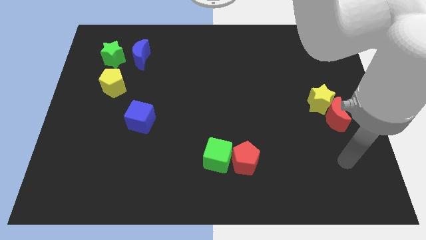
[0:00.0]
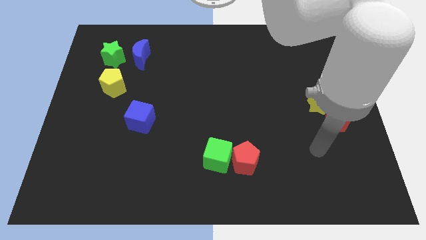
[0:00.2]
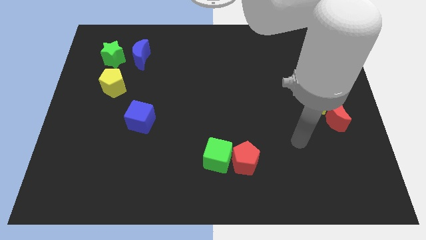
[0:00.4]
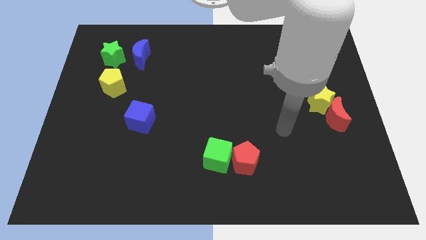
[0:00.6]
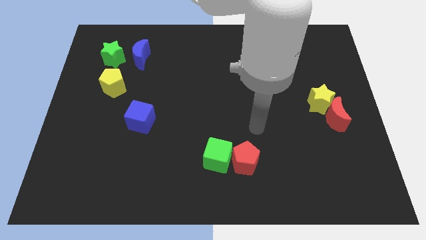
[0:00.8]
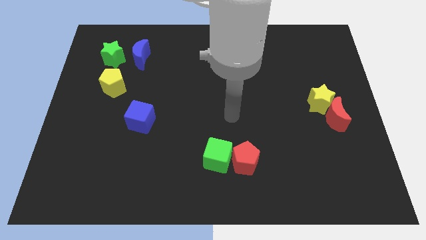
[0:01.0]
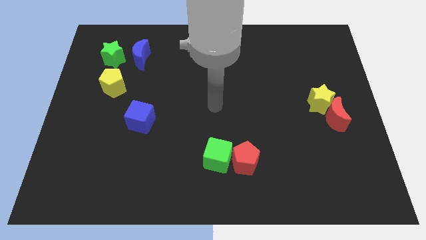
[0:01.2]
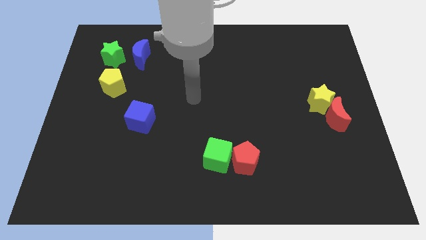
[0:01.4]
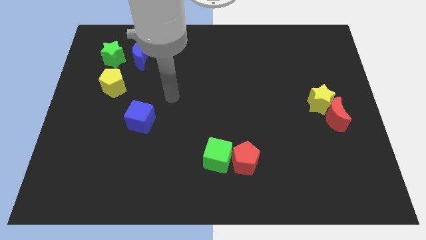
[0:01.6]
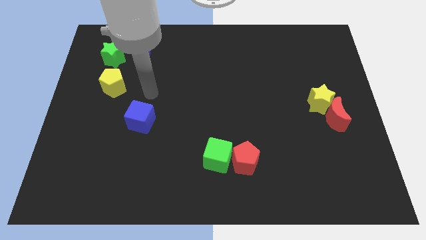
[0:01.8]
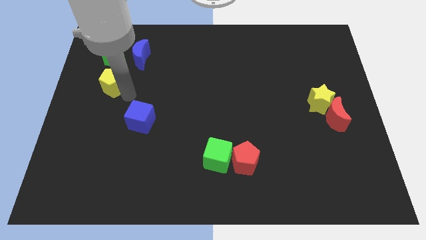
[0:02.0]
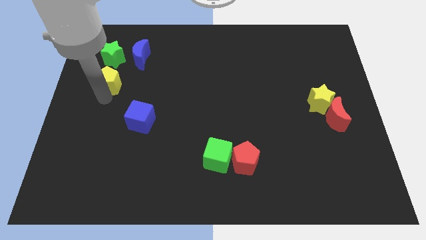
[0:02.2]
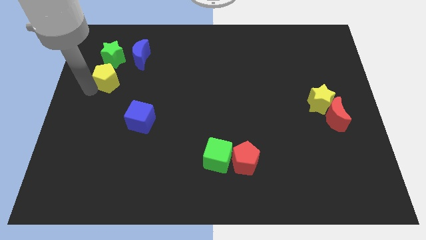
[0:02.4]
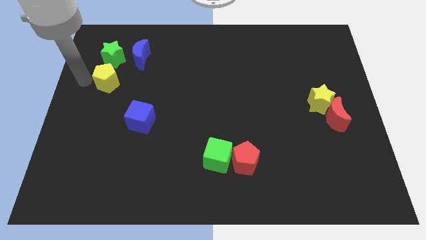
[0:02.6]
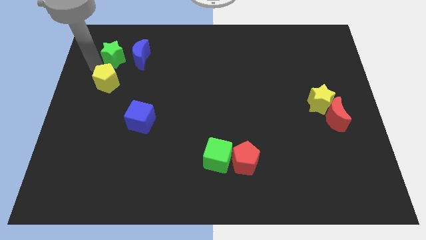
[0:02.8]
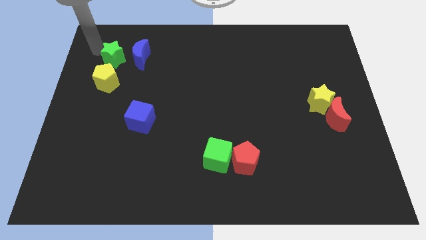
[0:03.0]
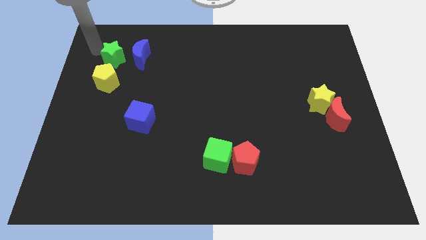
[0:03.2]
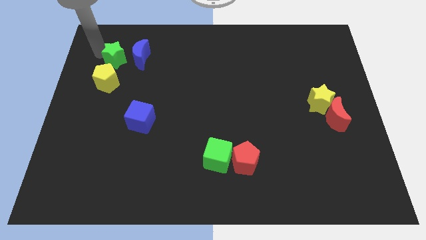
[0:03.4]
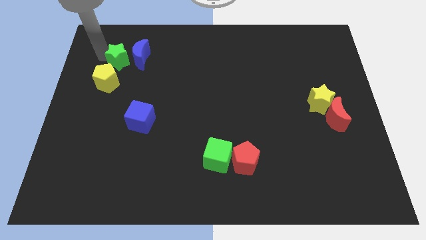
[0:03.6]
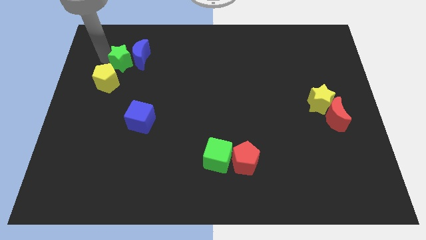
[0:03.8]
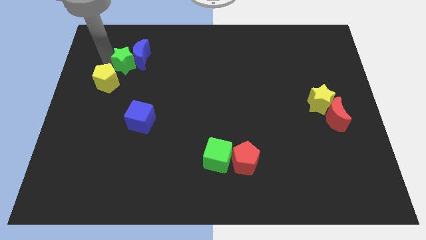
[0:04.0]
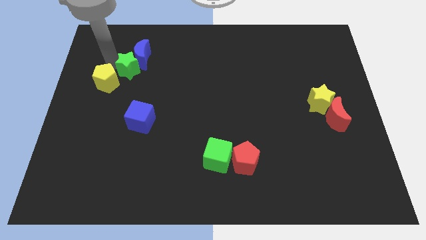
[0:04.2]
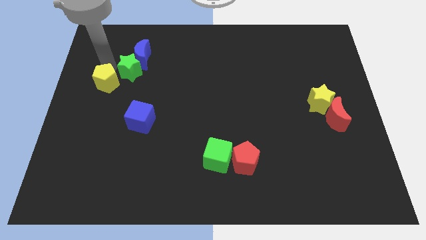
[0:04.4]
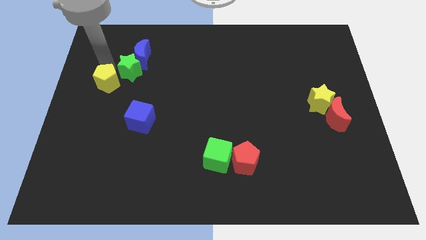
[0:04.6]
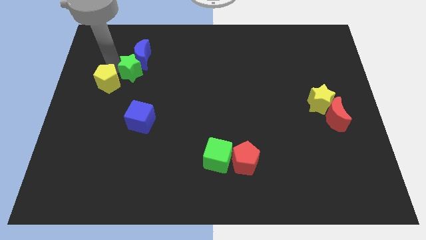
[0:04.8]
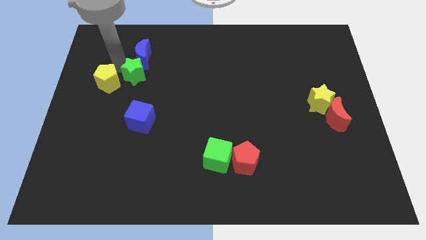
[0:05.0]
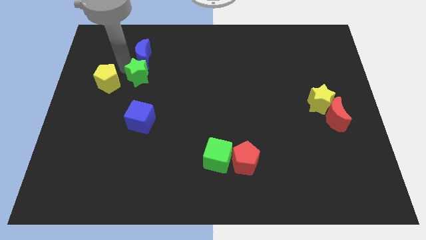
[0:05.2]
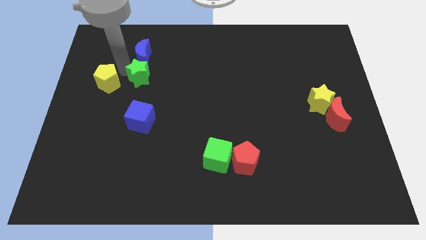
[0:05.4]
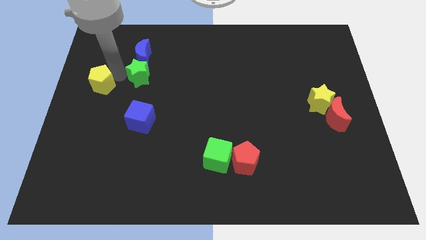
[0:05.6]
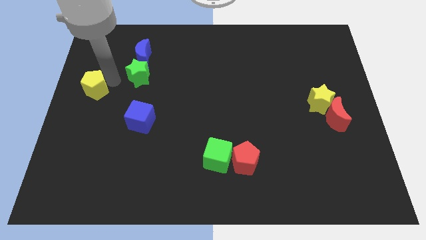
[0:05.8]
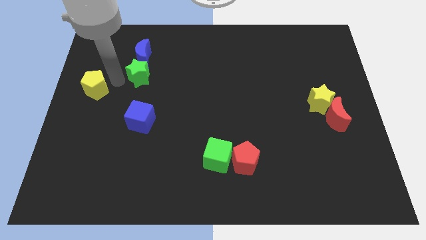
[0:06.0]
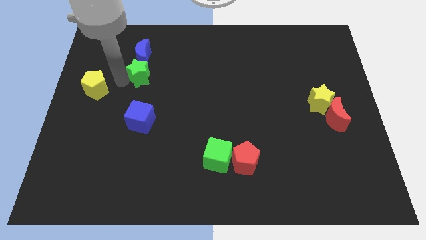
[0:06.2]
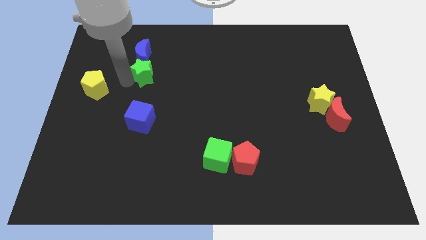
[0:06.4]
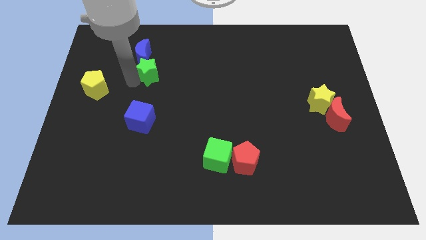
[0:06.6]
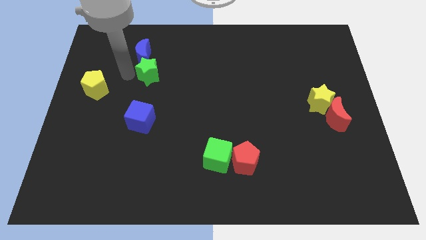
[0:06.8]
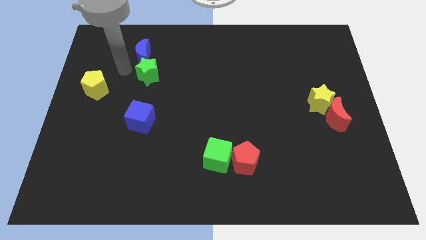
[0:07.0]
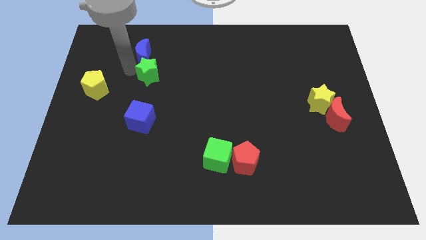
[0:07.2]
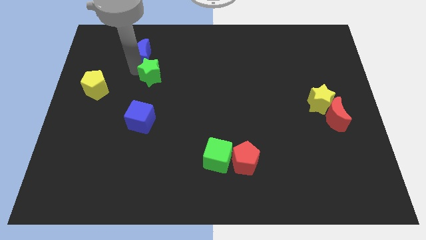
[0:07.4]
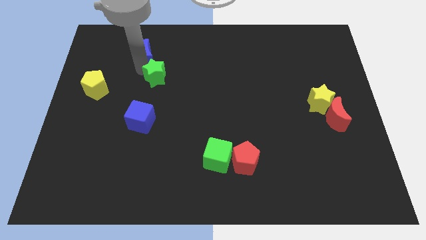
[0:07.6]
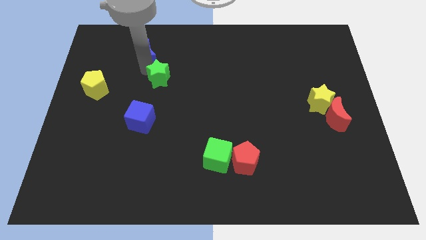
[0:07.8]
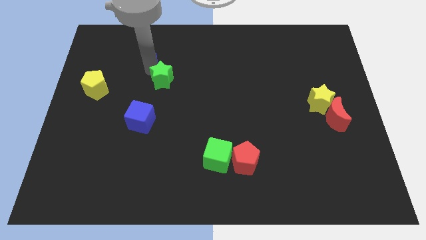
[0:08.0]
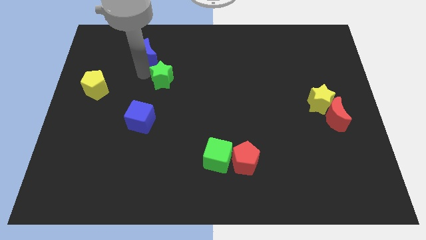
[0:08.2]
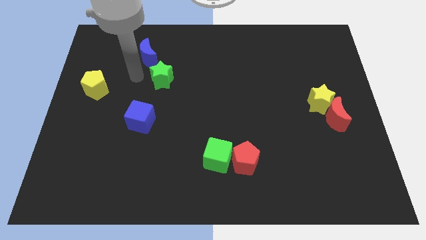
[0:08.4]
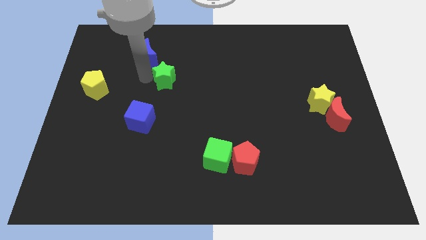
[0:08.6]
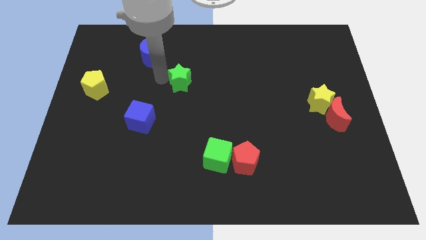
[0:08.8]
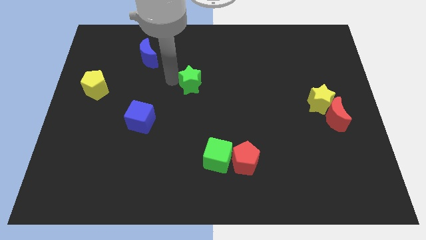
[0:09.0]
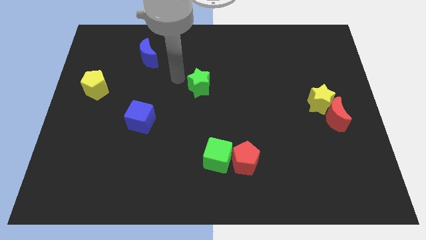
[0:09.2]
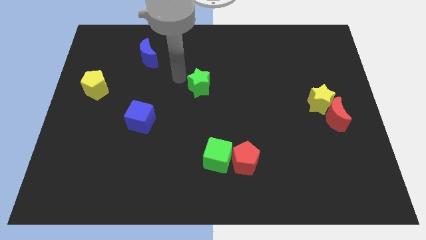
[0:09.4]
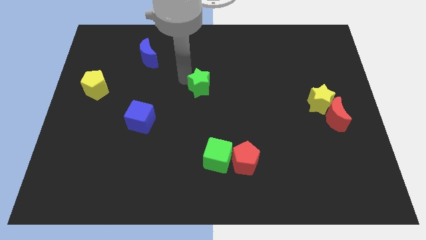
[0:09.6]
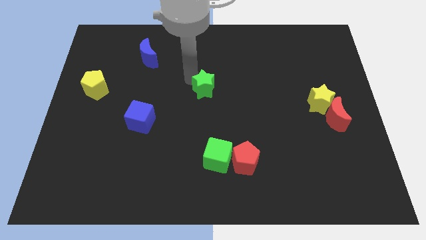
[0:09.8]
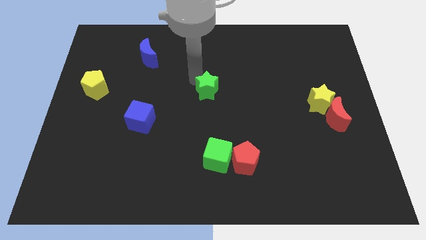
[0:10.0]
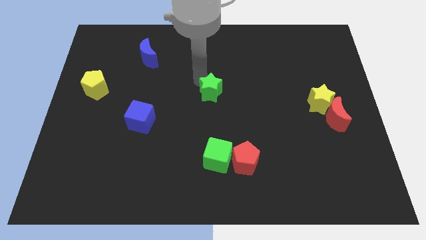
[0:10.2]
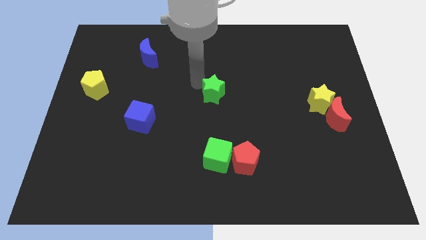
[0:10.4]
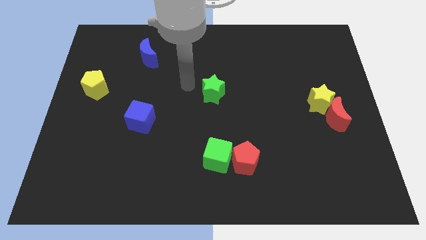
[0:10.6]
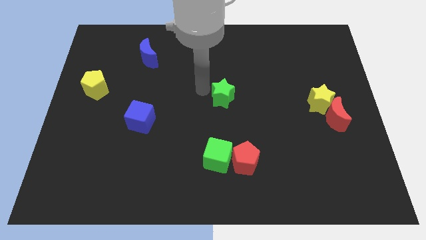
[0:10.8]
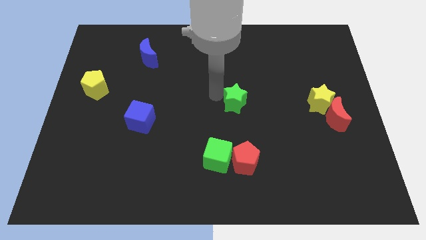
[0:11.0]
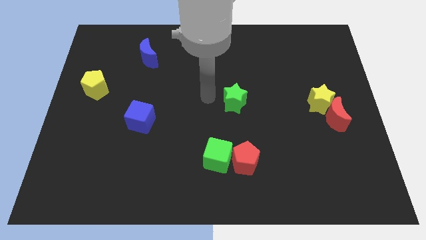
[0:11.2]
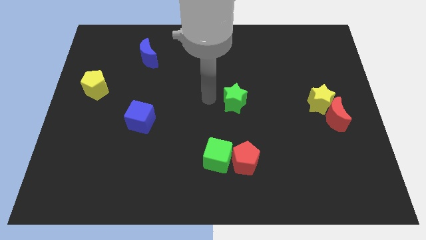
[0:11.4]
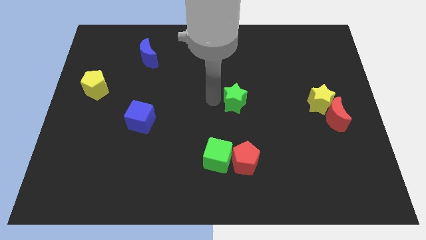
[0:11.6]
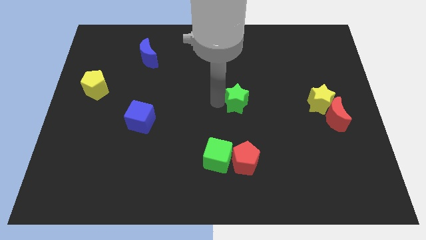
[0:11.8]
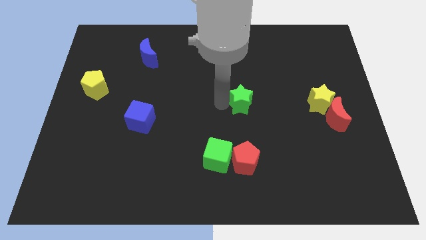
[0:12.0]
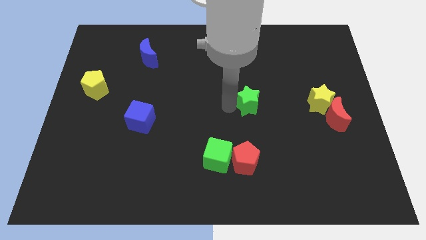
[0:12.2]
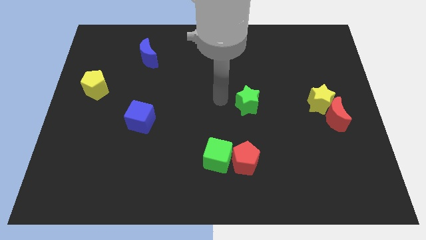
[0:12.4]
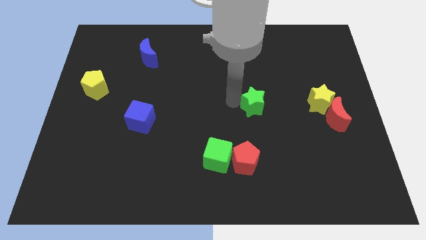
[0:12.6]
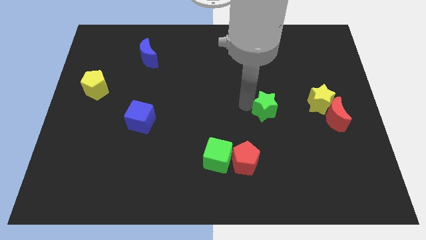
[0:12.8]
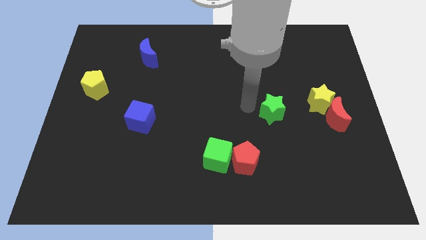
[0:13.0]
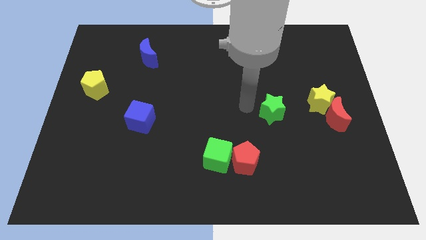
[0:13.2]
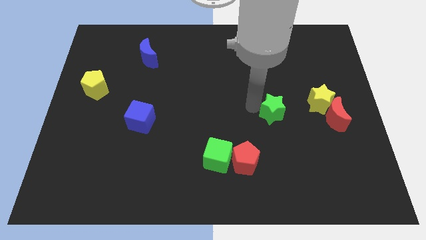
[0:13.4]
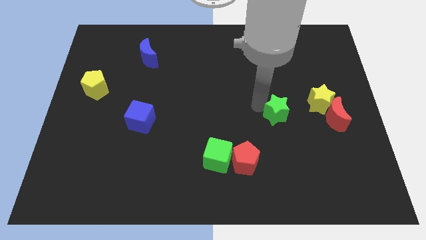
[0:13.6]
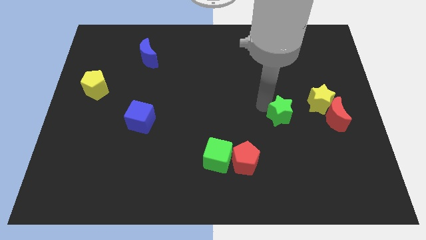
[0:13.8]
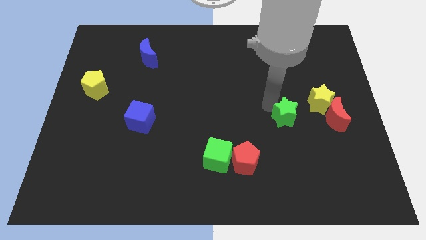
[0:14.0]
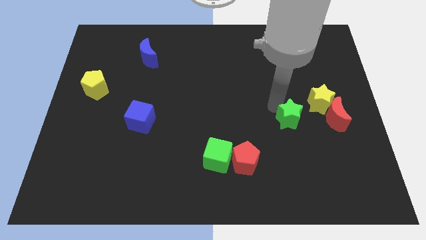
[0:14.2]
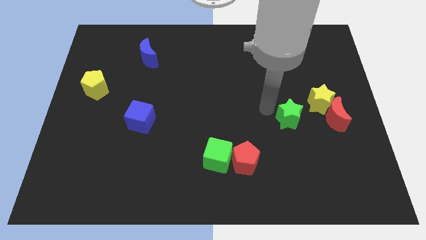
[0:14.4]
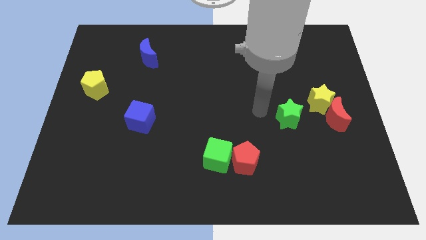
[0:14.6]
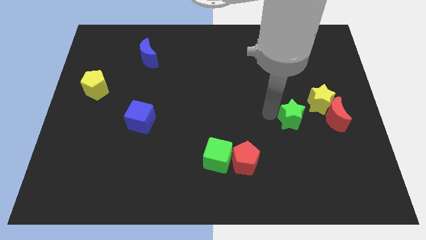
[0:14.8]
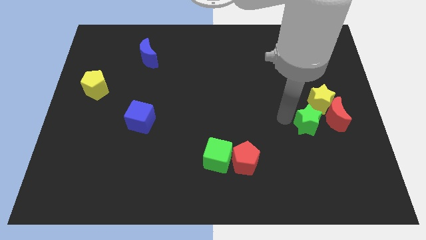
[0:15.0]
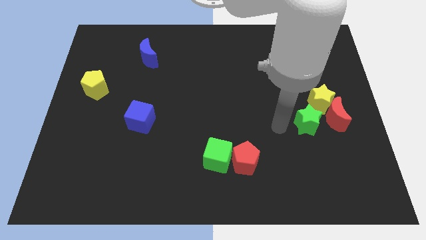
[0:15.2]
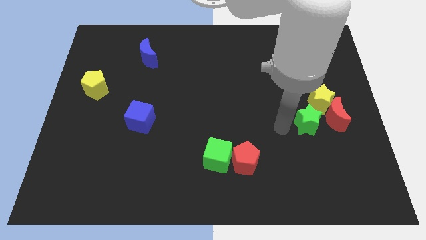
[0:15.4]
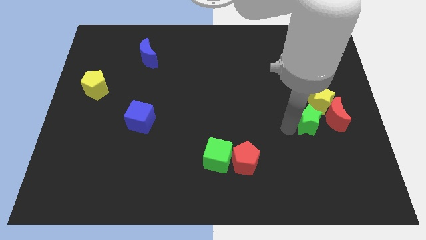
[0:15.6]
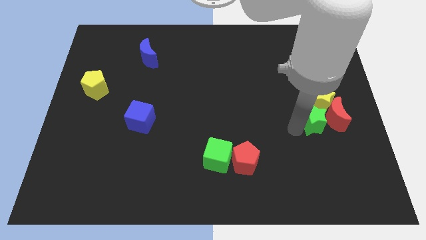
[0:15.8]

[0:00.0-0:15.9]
move the green star next to the red moon
